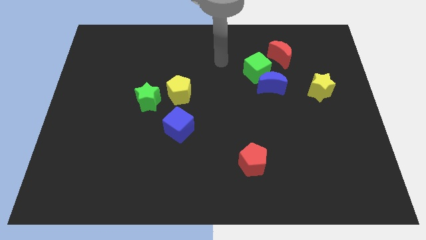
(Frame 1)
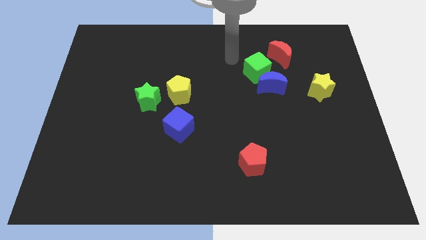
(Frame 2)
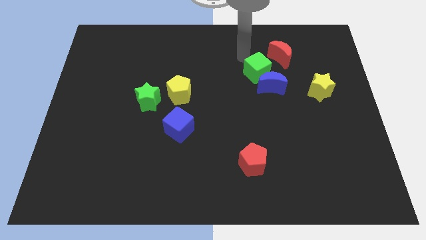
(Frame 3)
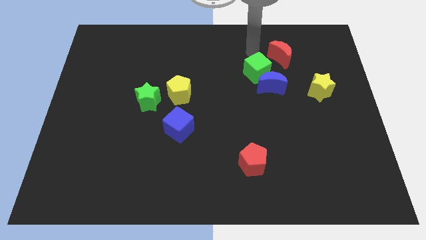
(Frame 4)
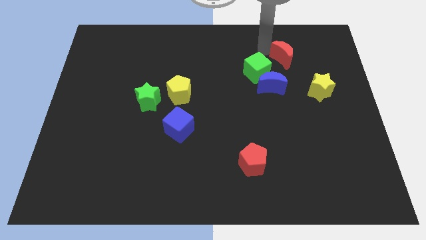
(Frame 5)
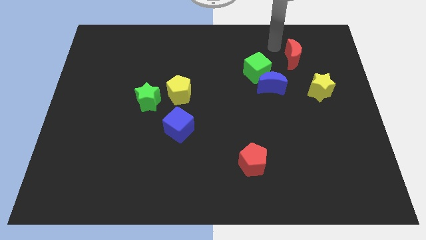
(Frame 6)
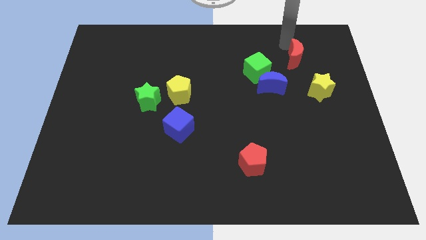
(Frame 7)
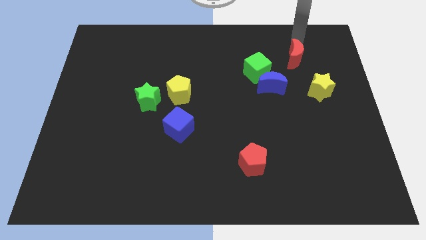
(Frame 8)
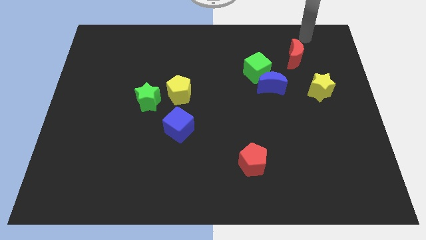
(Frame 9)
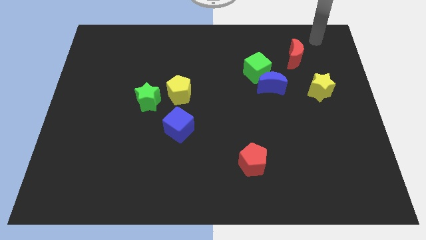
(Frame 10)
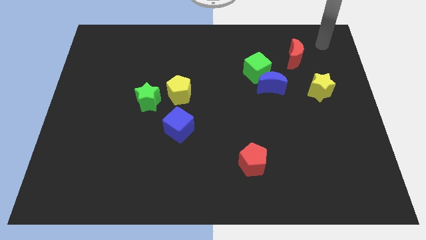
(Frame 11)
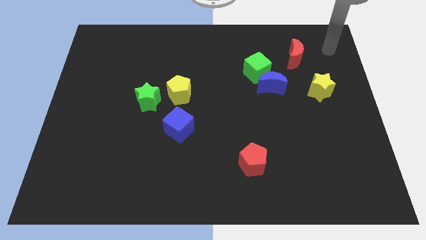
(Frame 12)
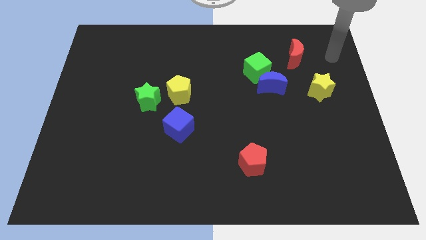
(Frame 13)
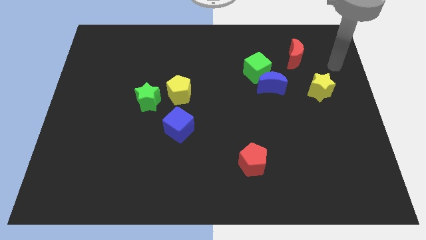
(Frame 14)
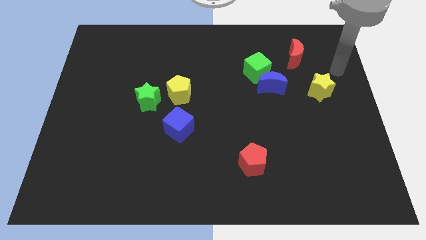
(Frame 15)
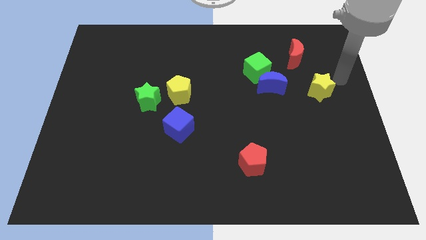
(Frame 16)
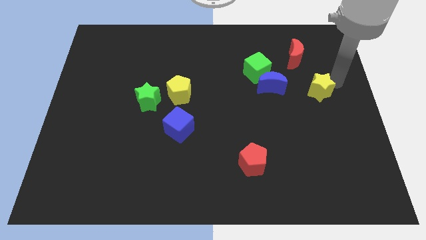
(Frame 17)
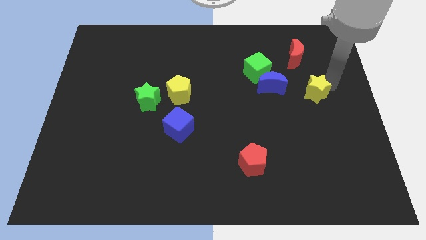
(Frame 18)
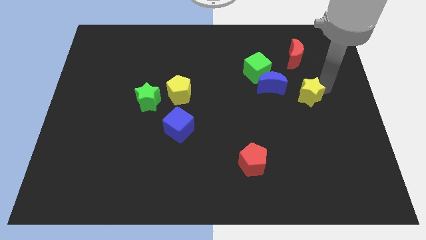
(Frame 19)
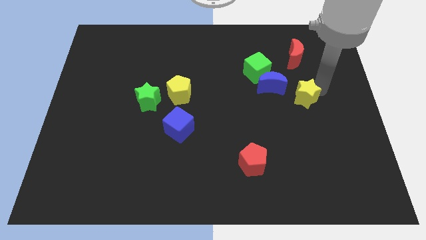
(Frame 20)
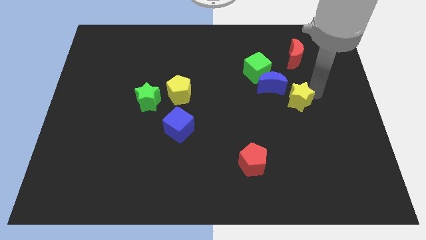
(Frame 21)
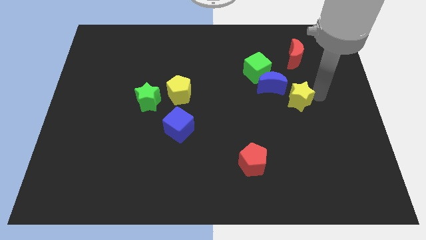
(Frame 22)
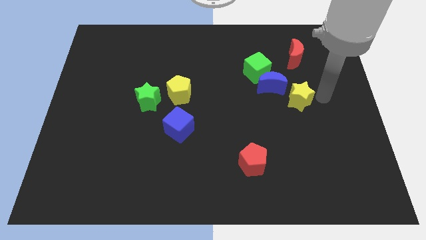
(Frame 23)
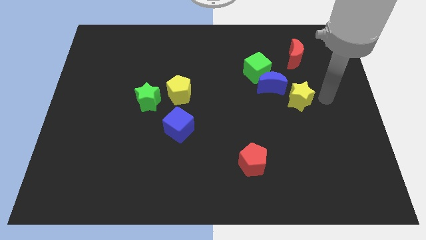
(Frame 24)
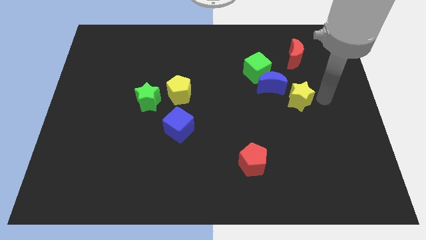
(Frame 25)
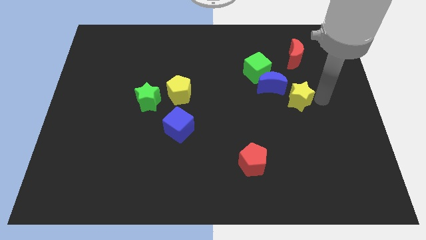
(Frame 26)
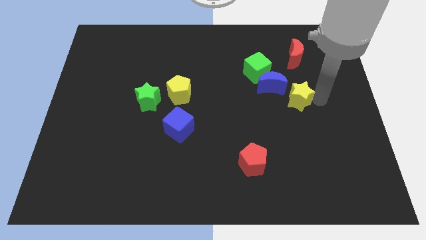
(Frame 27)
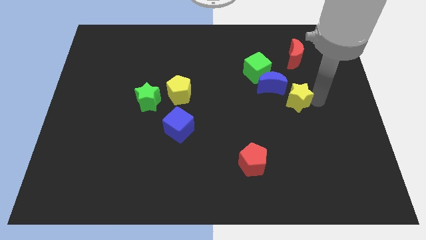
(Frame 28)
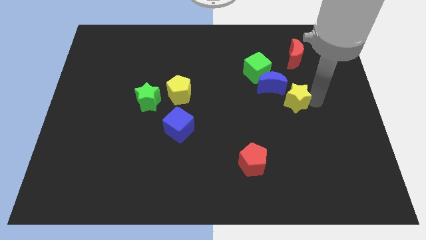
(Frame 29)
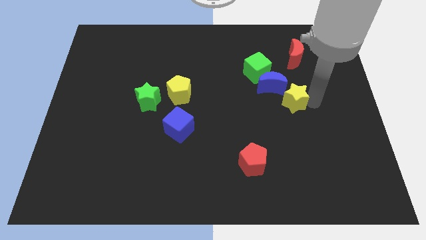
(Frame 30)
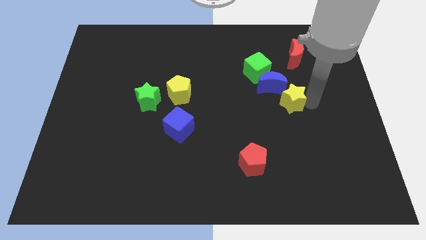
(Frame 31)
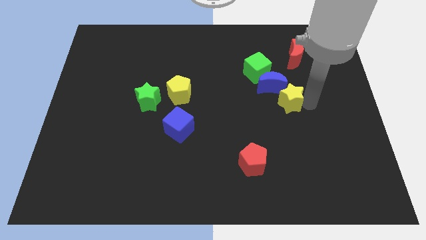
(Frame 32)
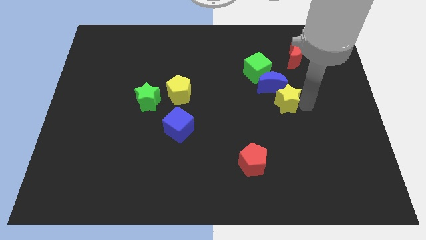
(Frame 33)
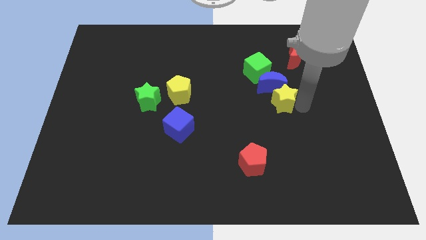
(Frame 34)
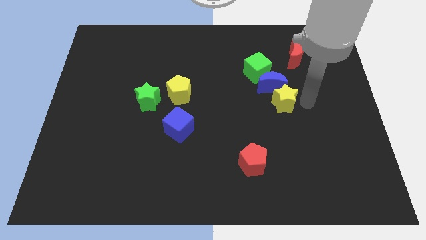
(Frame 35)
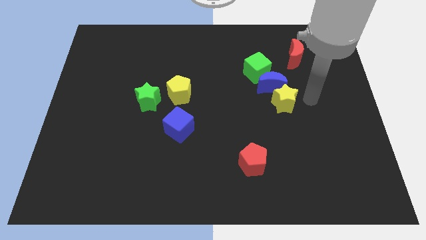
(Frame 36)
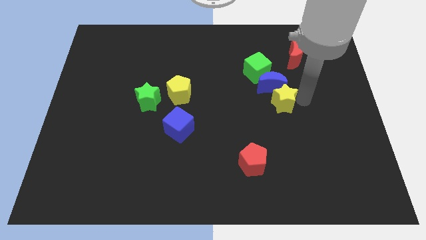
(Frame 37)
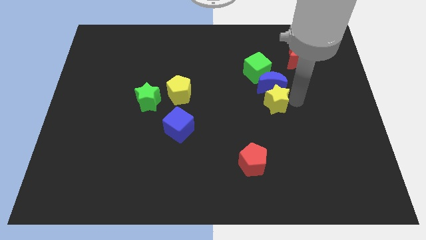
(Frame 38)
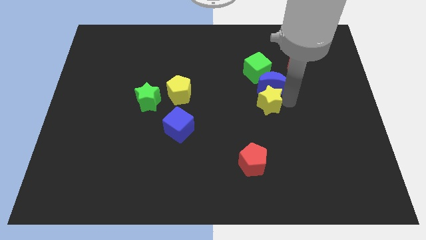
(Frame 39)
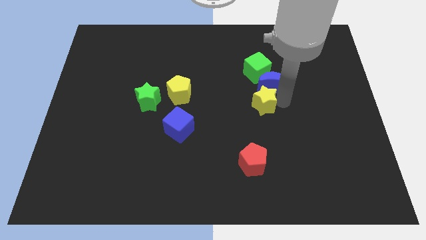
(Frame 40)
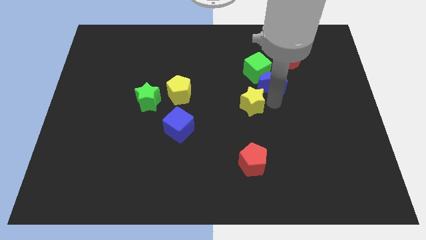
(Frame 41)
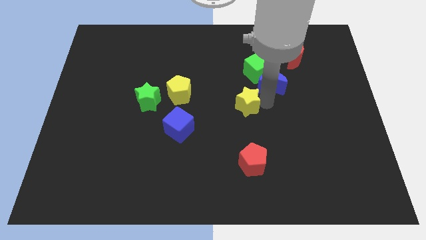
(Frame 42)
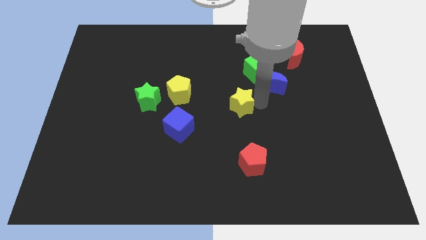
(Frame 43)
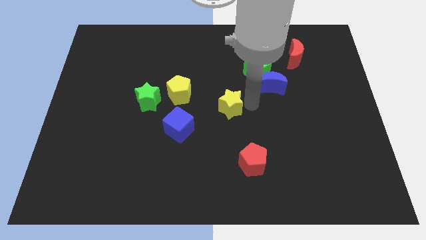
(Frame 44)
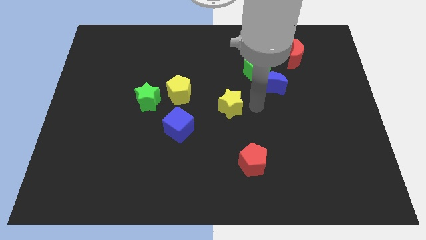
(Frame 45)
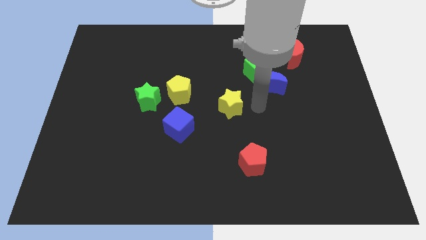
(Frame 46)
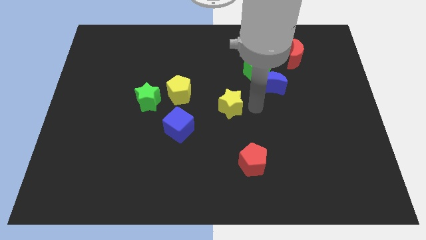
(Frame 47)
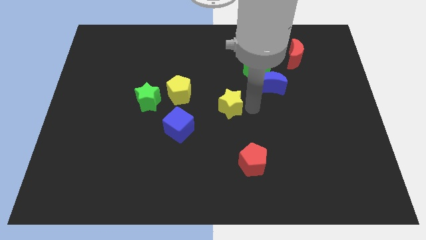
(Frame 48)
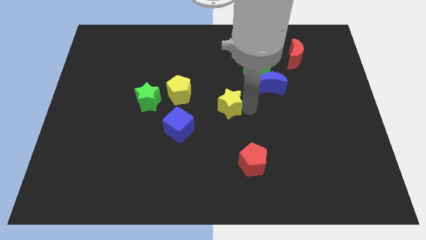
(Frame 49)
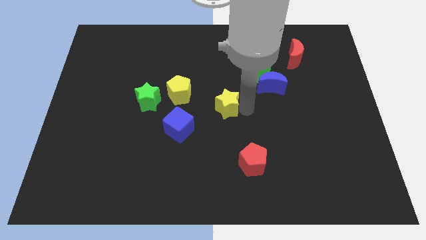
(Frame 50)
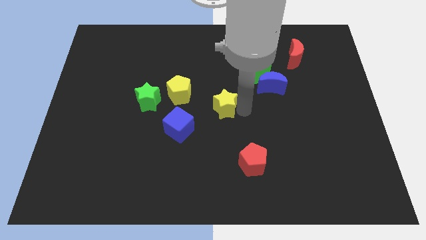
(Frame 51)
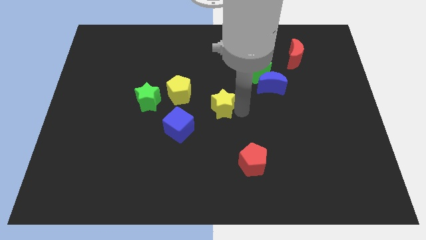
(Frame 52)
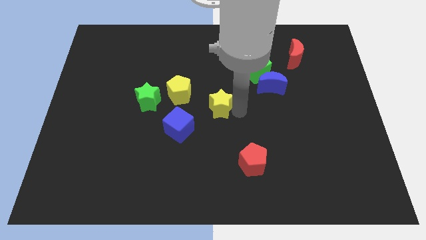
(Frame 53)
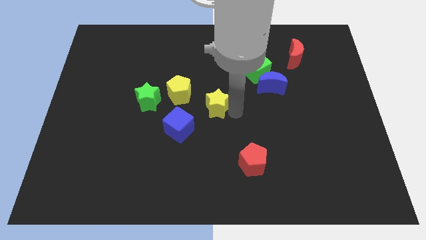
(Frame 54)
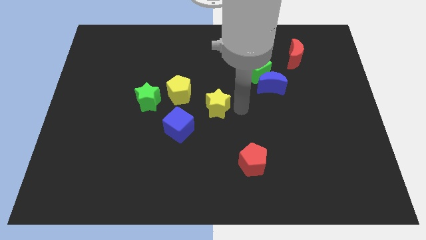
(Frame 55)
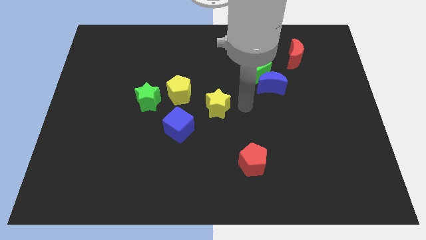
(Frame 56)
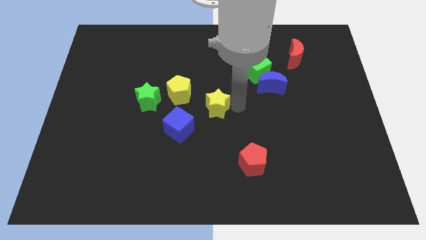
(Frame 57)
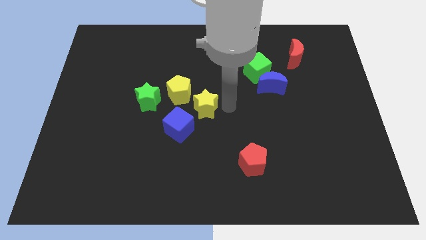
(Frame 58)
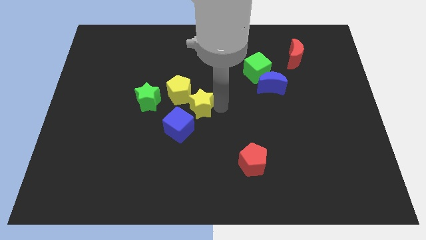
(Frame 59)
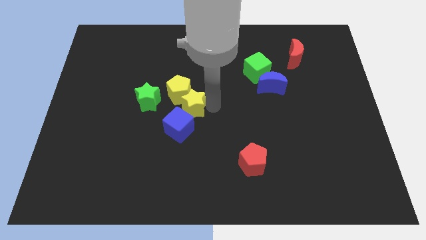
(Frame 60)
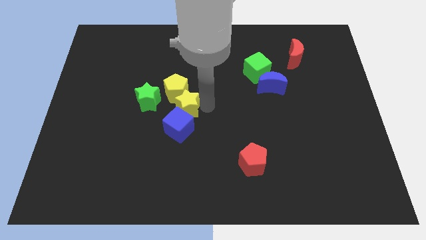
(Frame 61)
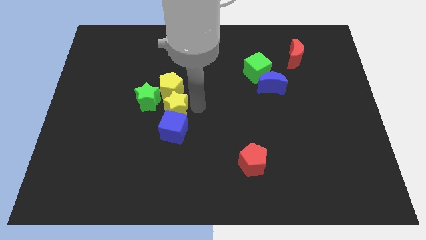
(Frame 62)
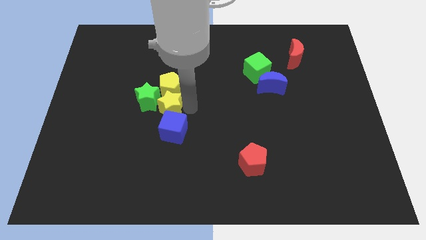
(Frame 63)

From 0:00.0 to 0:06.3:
slide the yellow star to the bottom left side of the yellow pentagon
